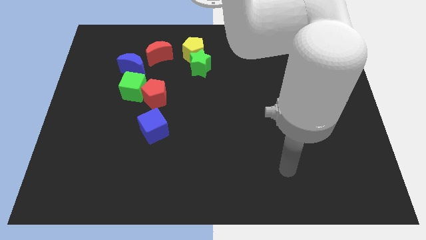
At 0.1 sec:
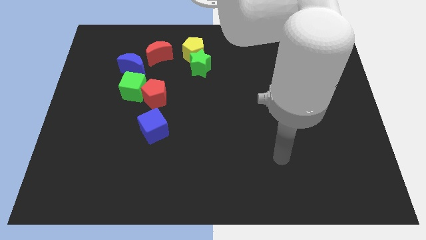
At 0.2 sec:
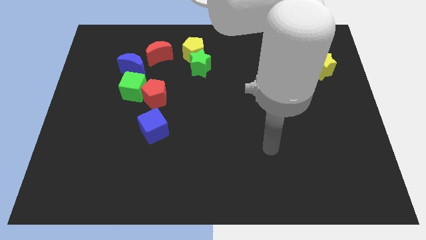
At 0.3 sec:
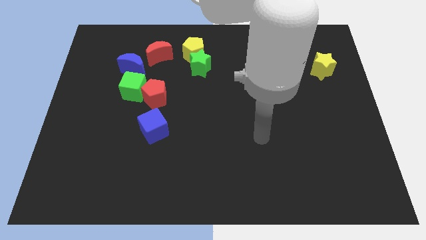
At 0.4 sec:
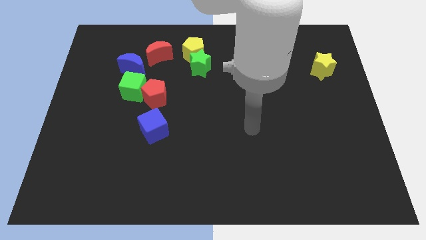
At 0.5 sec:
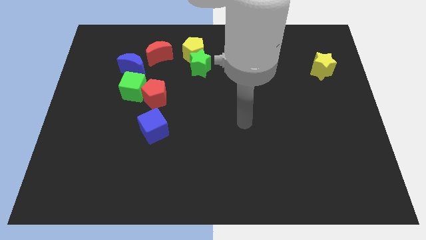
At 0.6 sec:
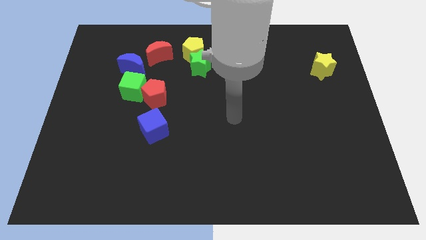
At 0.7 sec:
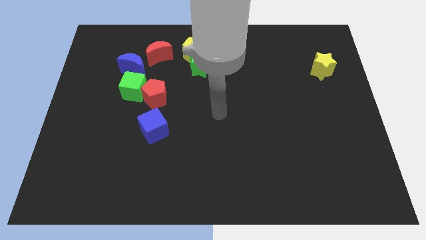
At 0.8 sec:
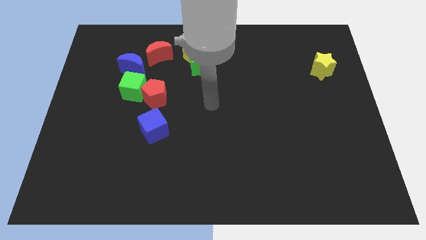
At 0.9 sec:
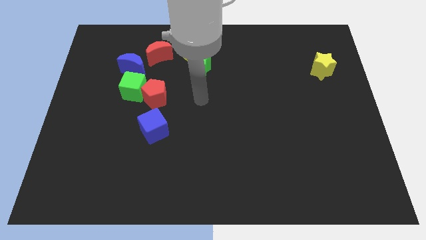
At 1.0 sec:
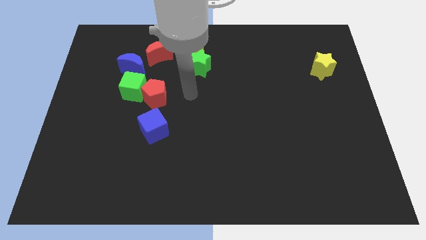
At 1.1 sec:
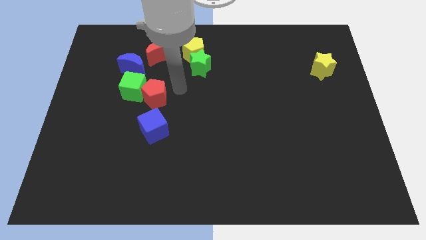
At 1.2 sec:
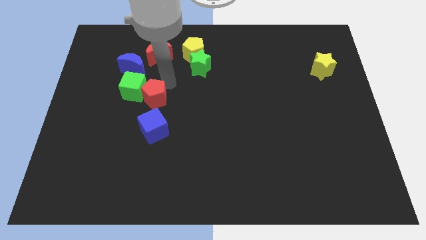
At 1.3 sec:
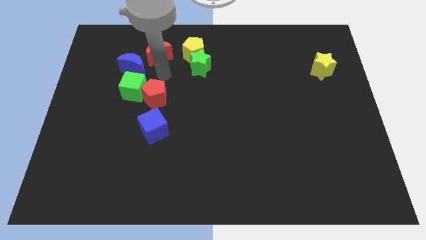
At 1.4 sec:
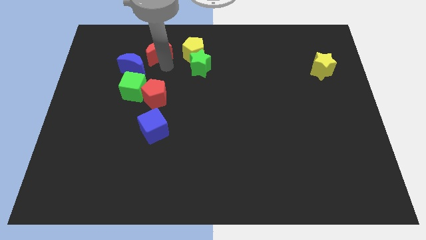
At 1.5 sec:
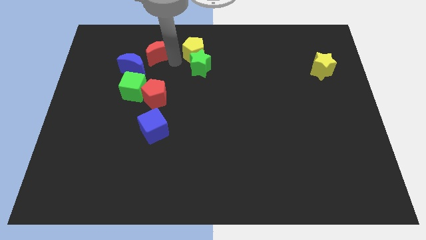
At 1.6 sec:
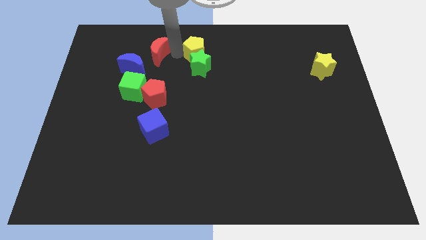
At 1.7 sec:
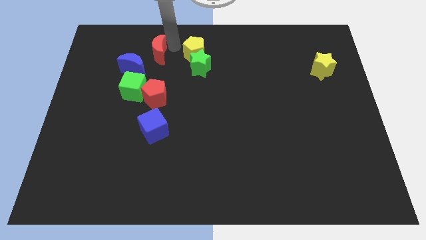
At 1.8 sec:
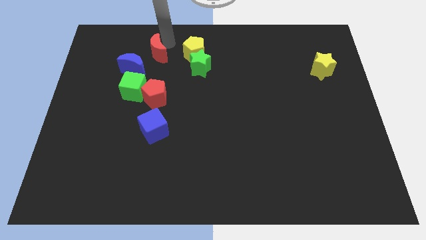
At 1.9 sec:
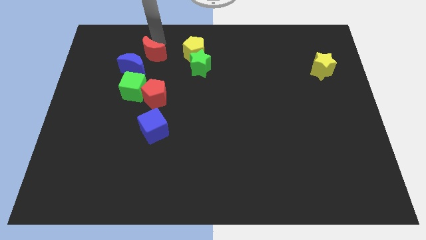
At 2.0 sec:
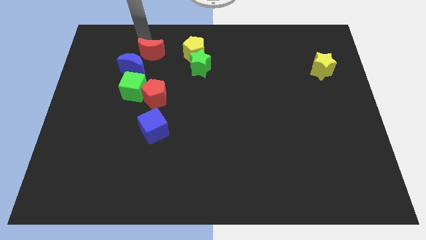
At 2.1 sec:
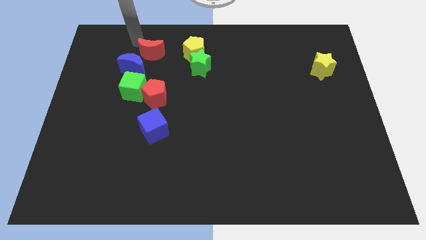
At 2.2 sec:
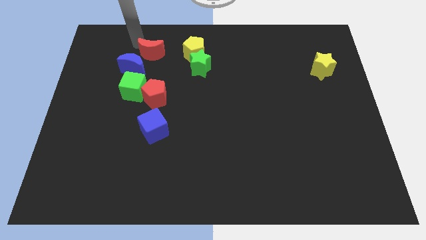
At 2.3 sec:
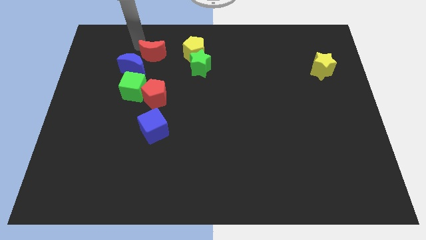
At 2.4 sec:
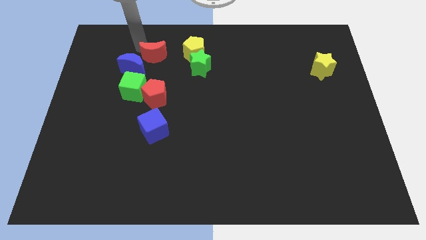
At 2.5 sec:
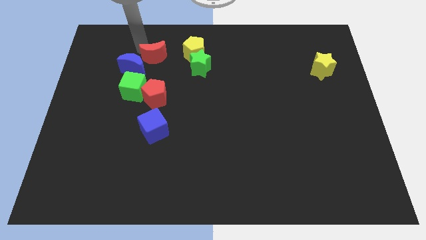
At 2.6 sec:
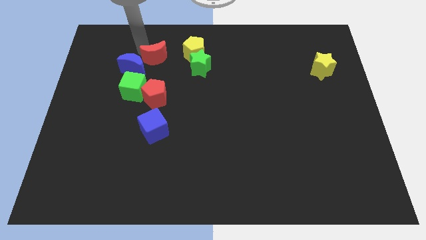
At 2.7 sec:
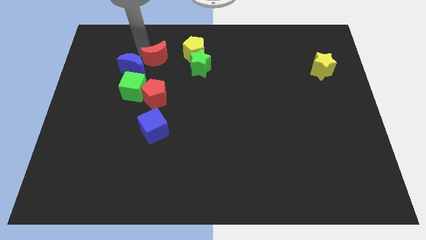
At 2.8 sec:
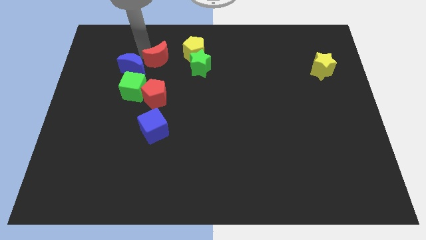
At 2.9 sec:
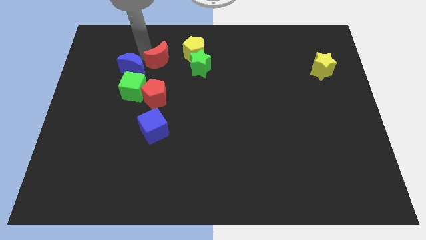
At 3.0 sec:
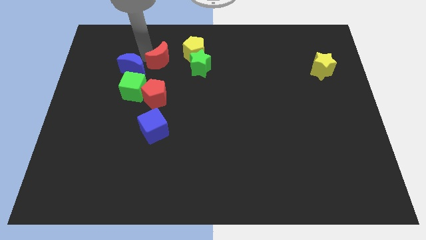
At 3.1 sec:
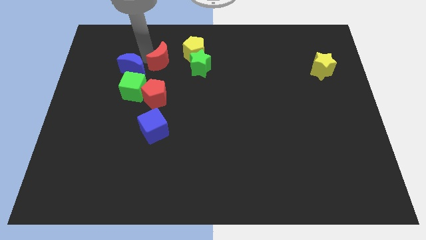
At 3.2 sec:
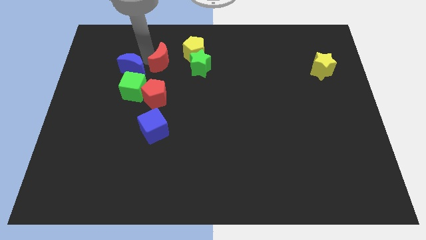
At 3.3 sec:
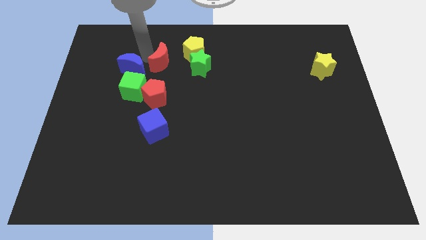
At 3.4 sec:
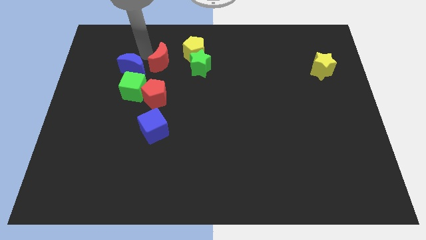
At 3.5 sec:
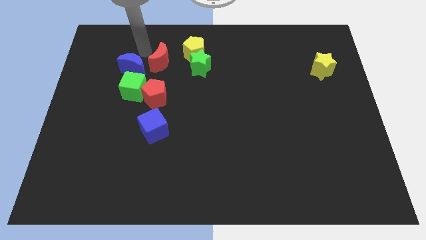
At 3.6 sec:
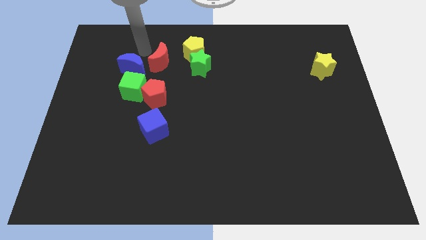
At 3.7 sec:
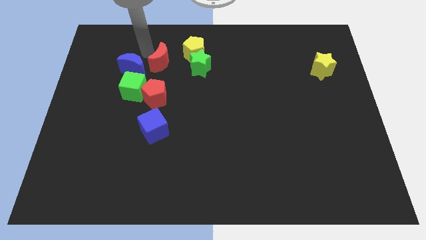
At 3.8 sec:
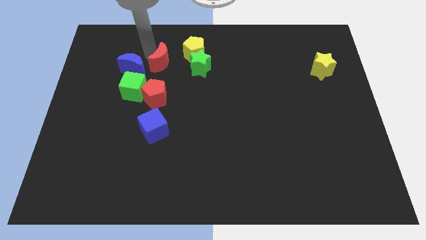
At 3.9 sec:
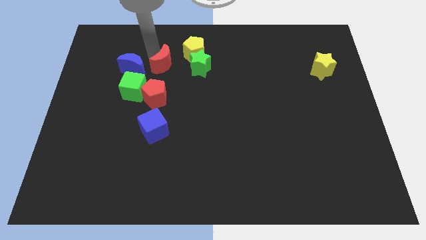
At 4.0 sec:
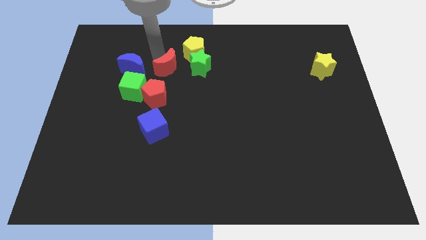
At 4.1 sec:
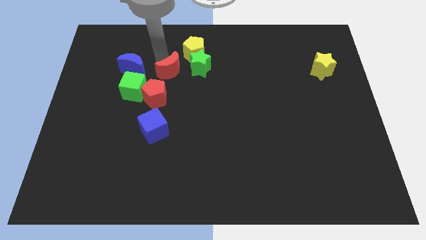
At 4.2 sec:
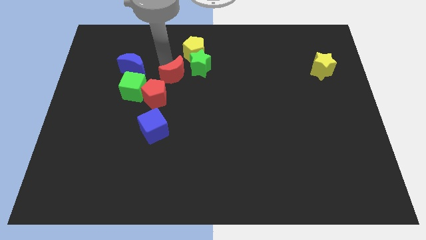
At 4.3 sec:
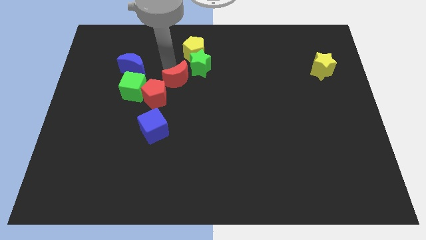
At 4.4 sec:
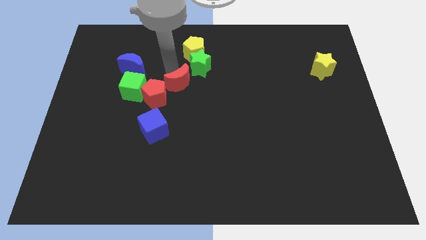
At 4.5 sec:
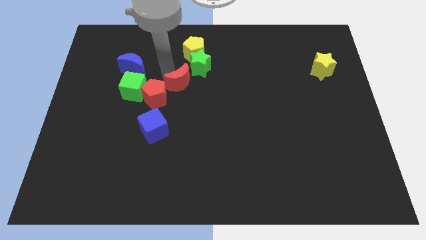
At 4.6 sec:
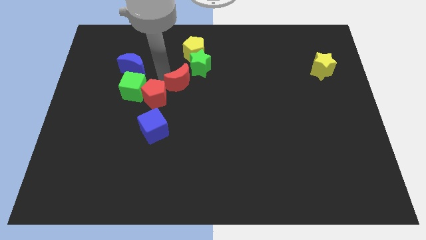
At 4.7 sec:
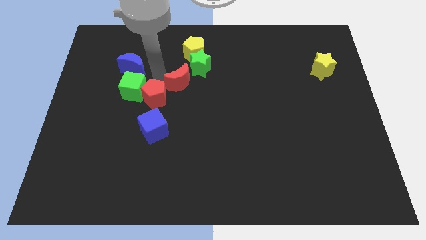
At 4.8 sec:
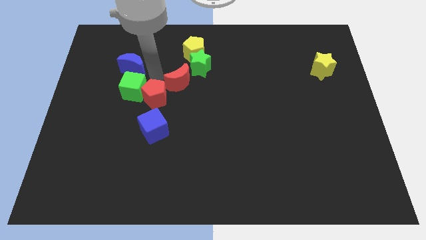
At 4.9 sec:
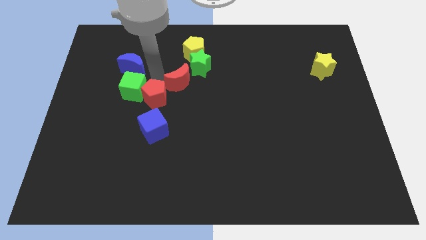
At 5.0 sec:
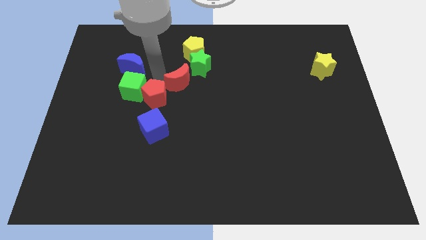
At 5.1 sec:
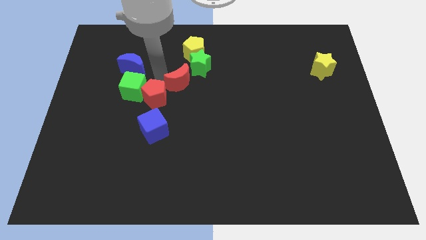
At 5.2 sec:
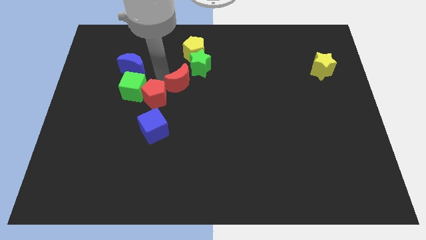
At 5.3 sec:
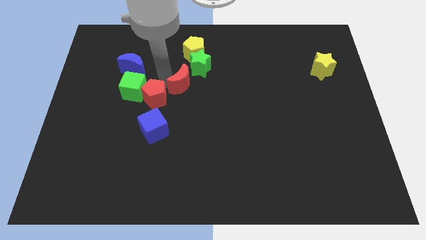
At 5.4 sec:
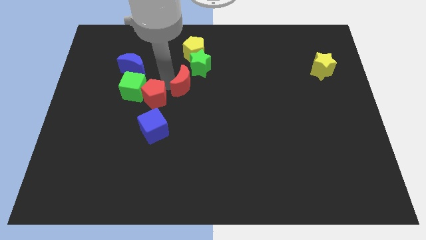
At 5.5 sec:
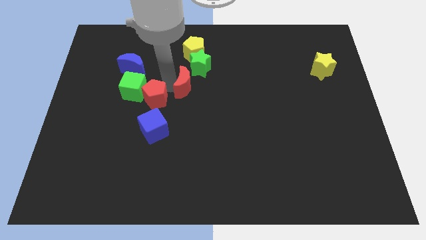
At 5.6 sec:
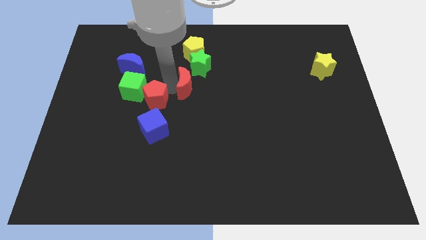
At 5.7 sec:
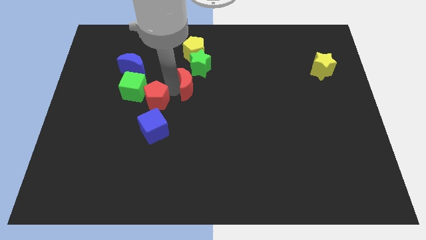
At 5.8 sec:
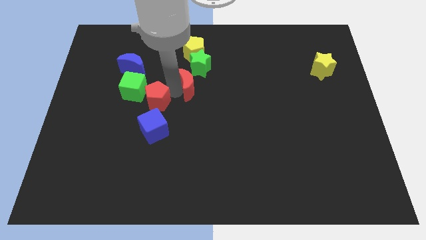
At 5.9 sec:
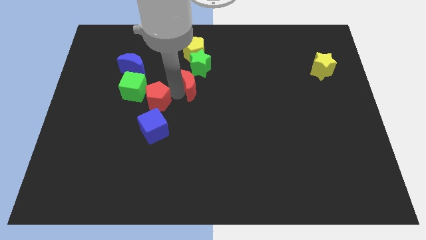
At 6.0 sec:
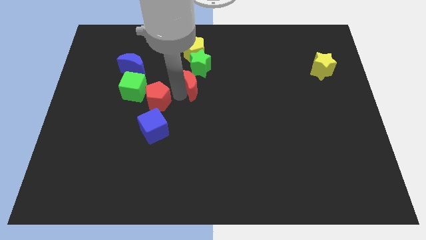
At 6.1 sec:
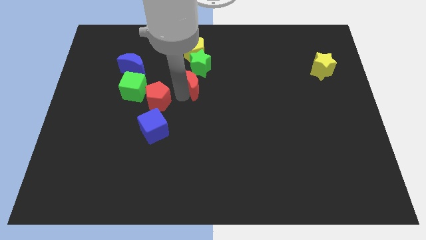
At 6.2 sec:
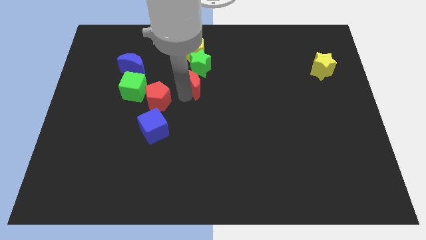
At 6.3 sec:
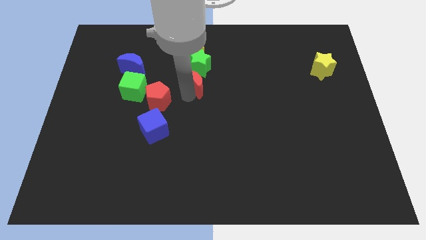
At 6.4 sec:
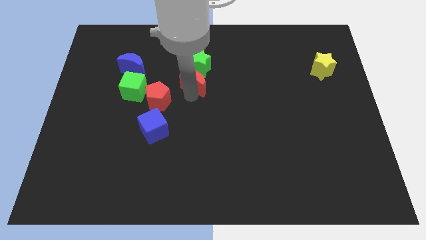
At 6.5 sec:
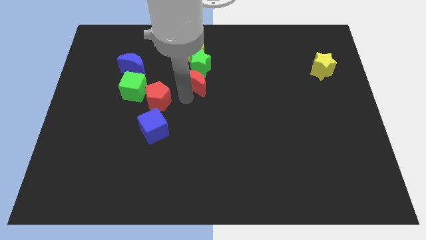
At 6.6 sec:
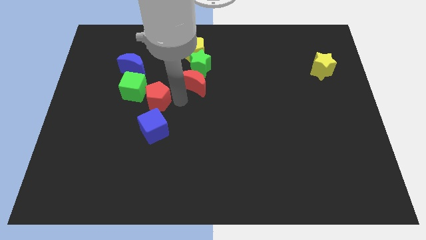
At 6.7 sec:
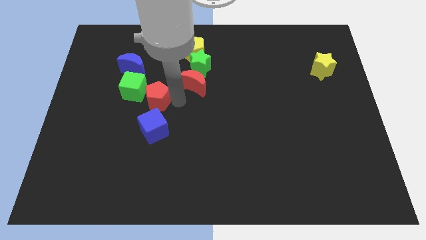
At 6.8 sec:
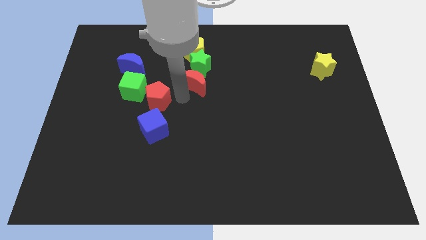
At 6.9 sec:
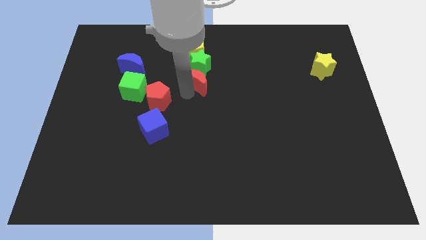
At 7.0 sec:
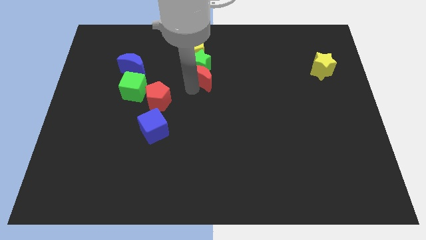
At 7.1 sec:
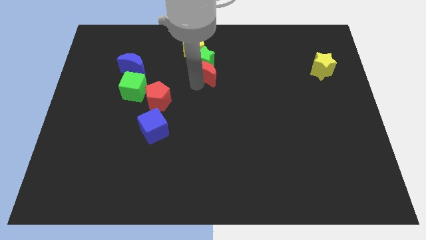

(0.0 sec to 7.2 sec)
push the red moon to the bottom right of the yellow pentagon

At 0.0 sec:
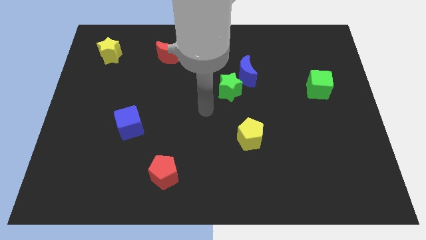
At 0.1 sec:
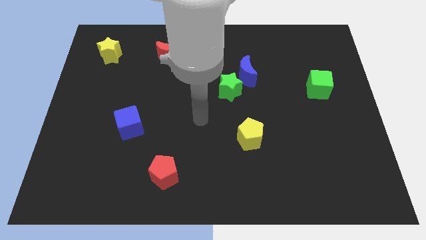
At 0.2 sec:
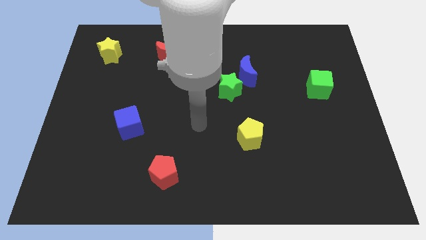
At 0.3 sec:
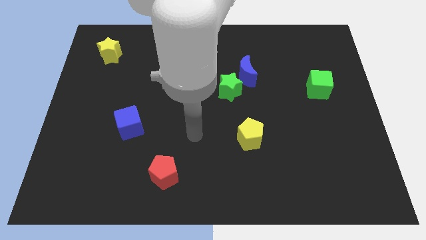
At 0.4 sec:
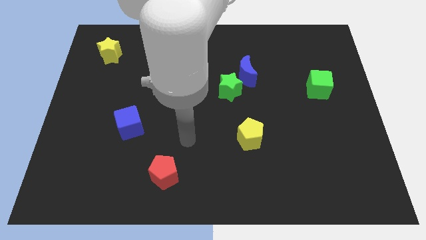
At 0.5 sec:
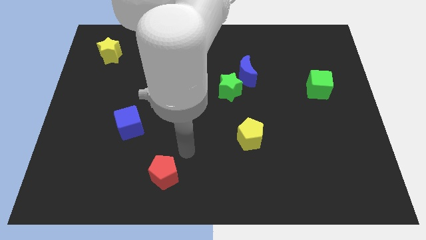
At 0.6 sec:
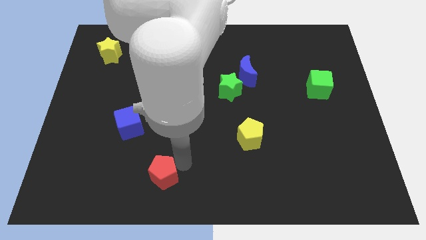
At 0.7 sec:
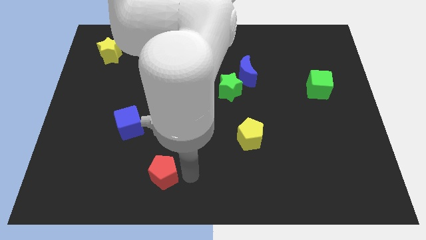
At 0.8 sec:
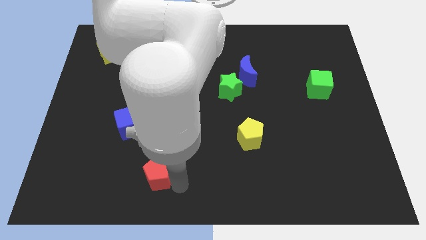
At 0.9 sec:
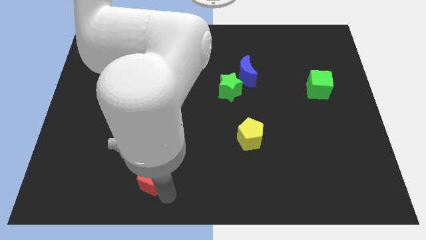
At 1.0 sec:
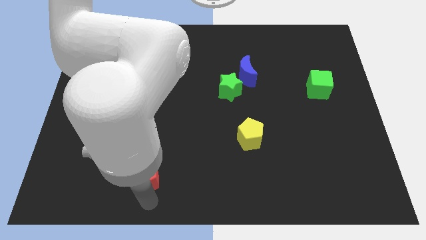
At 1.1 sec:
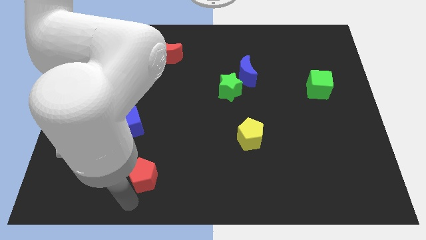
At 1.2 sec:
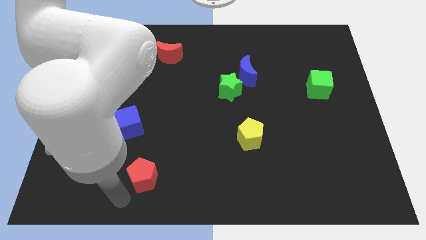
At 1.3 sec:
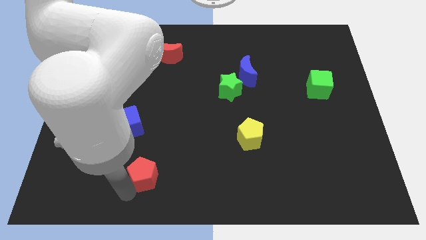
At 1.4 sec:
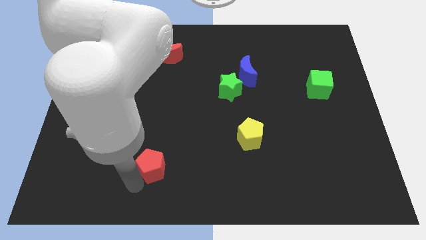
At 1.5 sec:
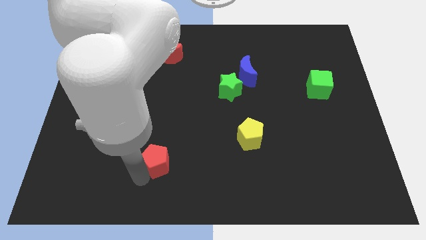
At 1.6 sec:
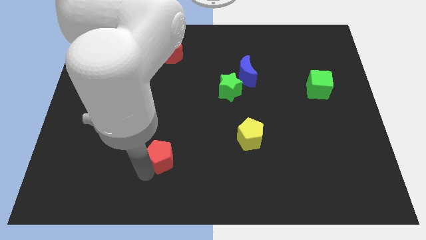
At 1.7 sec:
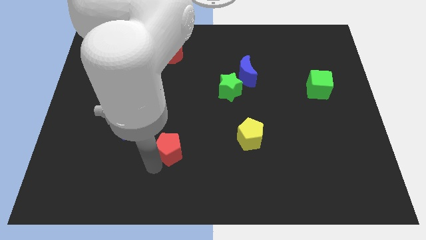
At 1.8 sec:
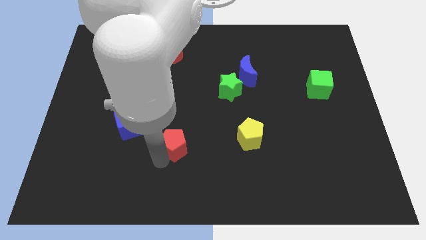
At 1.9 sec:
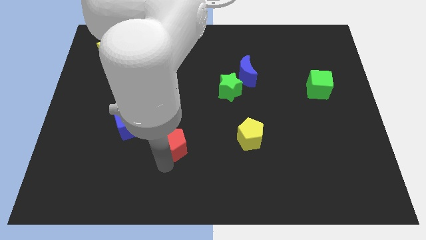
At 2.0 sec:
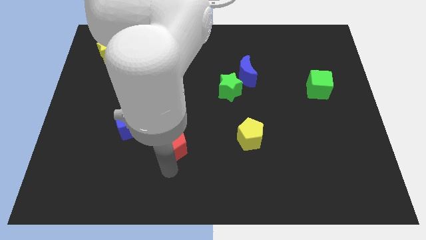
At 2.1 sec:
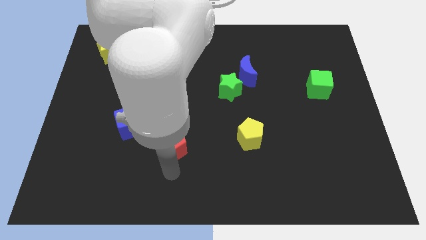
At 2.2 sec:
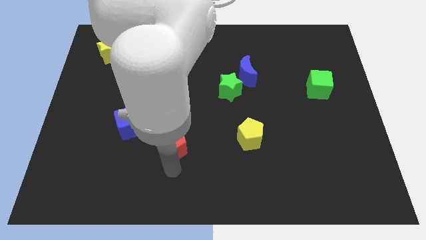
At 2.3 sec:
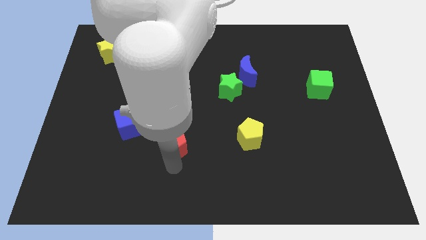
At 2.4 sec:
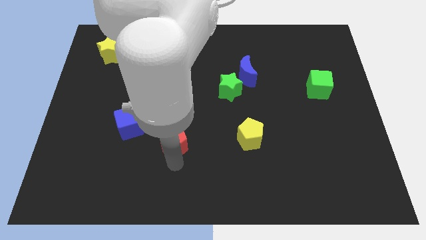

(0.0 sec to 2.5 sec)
slide the red pentagon right of the blue cube
